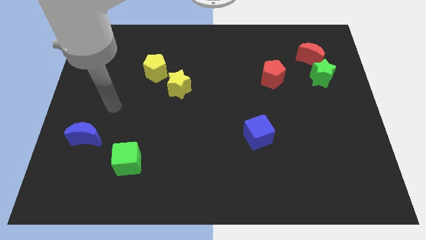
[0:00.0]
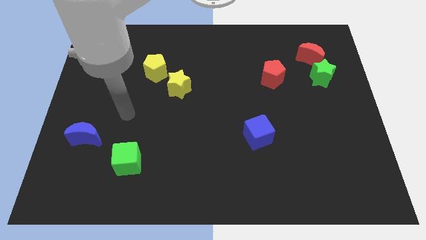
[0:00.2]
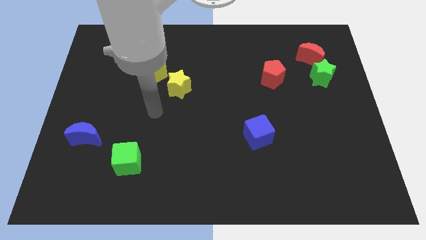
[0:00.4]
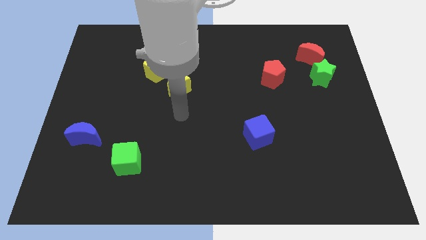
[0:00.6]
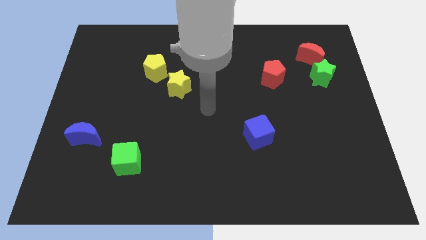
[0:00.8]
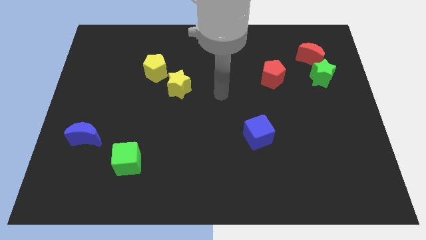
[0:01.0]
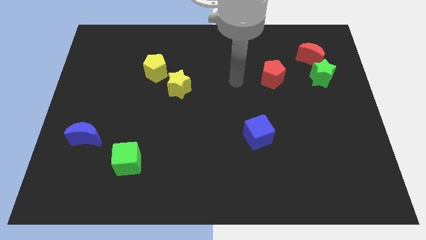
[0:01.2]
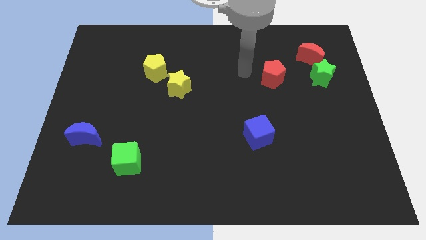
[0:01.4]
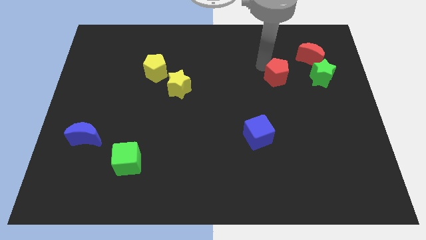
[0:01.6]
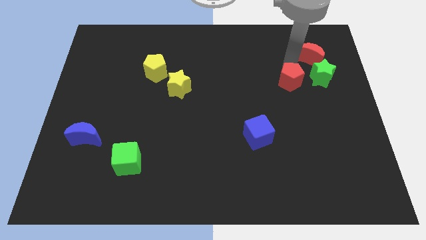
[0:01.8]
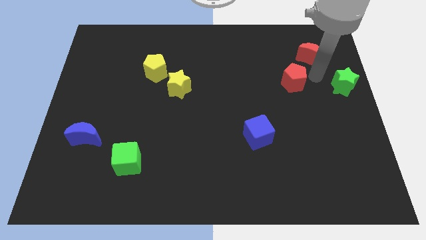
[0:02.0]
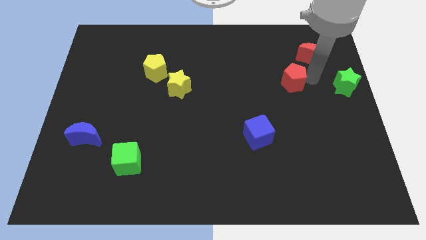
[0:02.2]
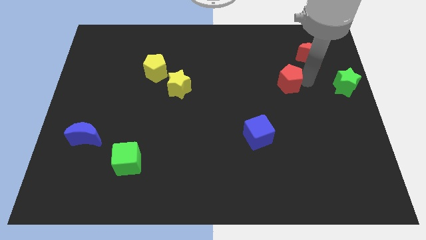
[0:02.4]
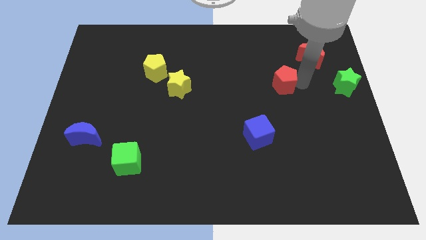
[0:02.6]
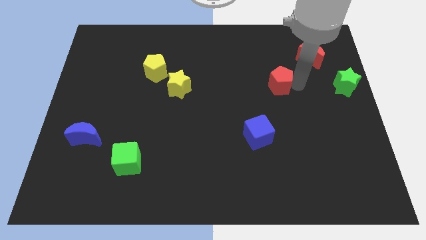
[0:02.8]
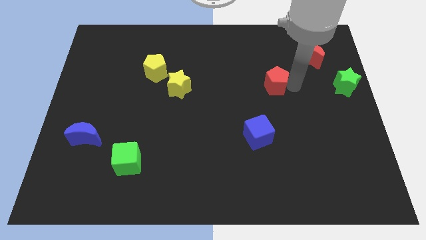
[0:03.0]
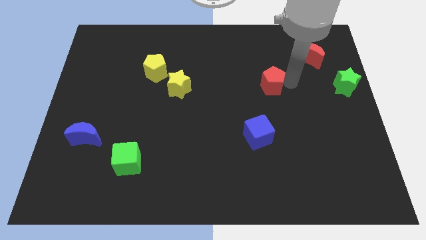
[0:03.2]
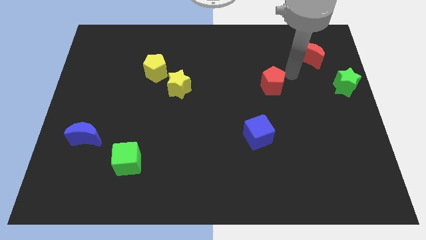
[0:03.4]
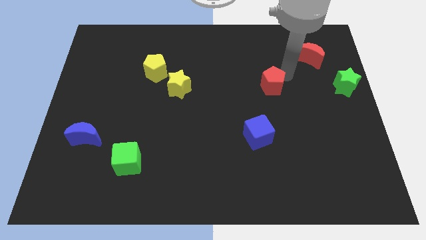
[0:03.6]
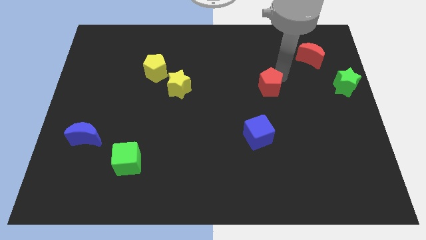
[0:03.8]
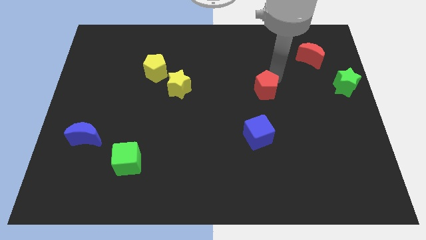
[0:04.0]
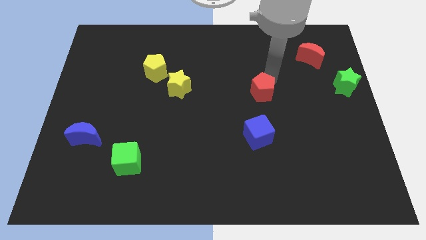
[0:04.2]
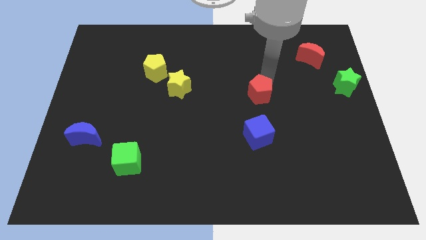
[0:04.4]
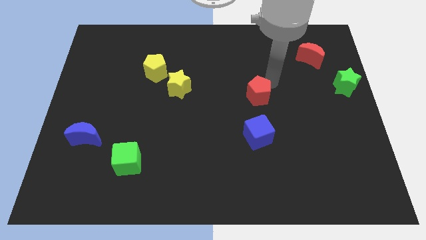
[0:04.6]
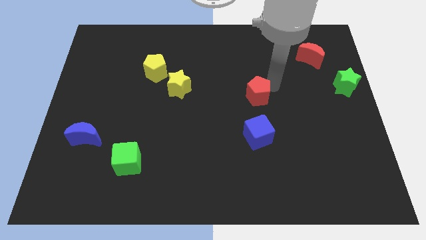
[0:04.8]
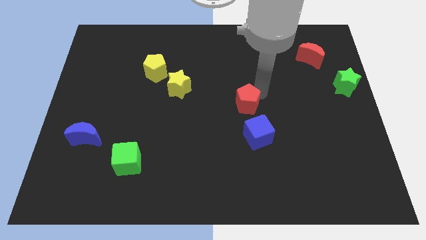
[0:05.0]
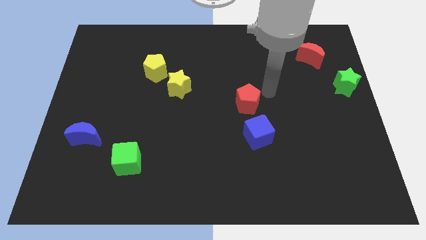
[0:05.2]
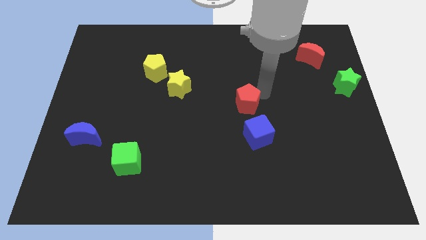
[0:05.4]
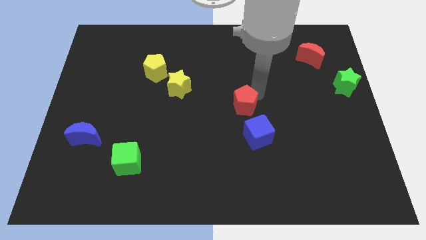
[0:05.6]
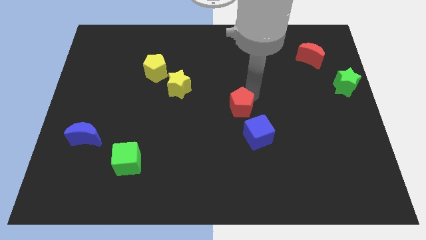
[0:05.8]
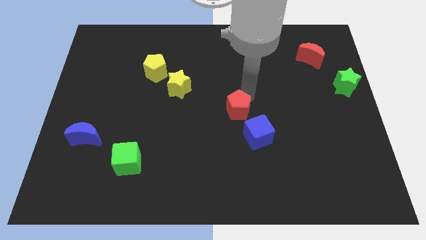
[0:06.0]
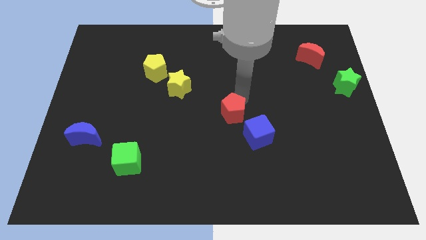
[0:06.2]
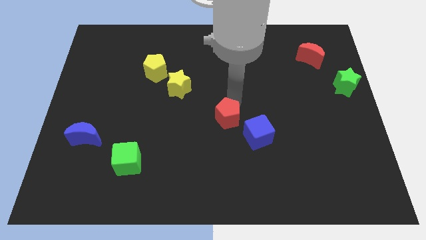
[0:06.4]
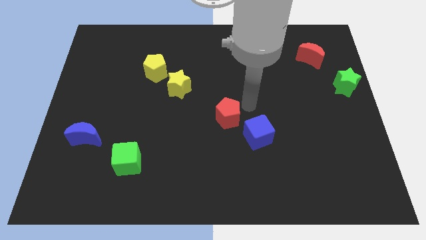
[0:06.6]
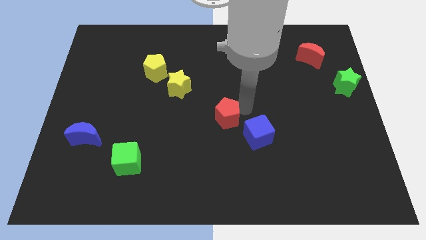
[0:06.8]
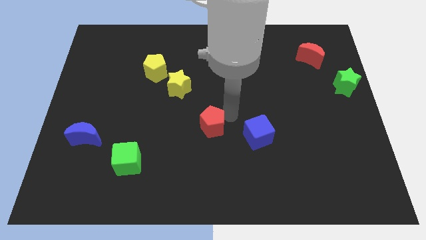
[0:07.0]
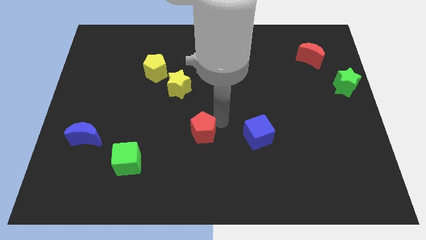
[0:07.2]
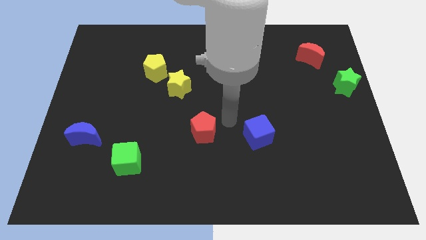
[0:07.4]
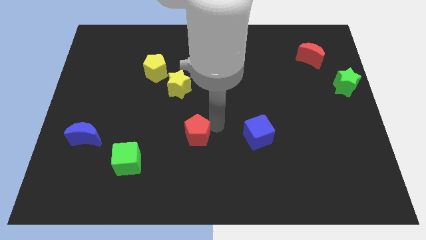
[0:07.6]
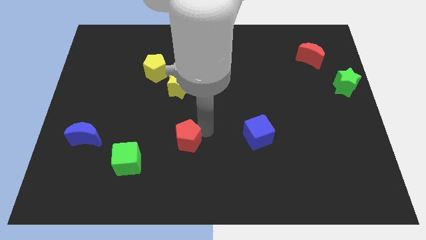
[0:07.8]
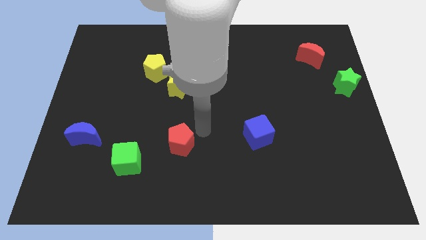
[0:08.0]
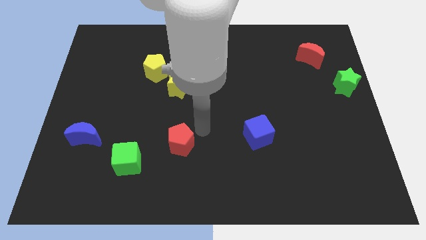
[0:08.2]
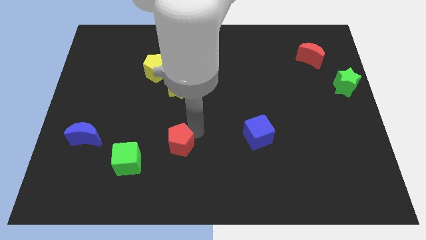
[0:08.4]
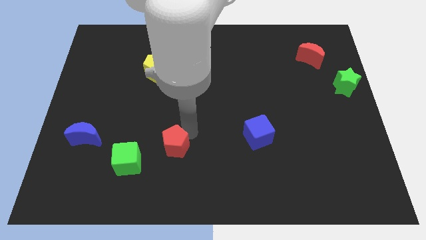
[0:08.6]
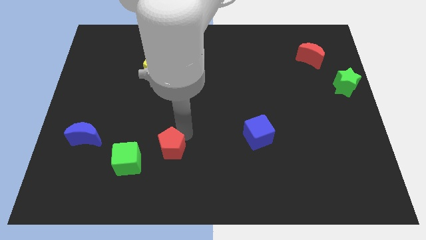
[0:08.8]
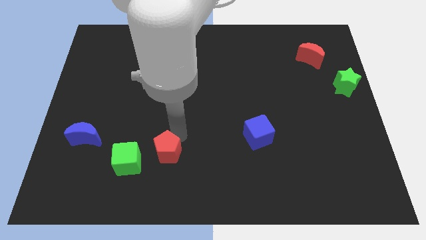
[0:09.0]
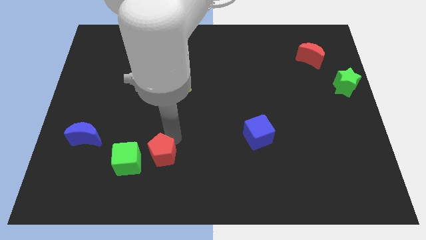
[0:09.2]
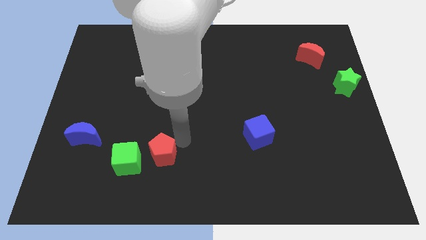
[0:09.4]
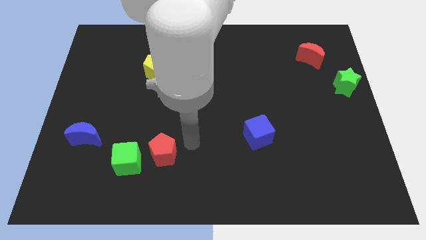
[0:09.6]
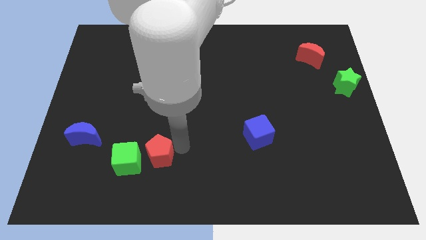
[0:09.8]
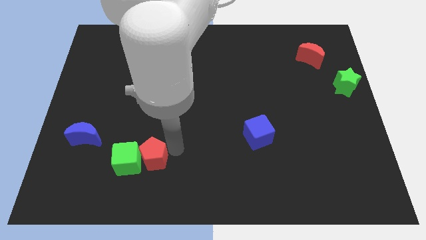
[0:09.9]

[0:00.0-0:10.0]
slide the red pentagon next to the green cube

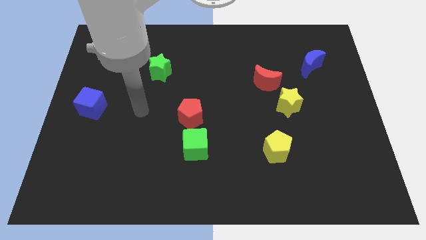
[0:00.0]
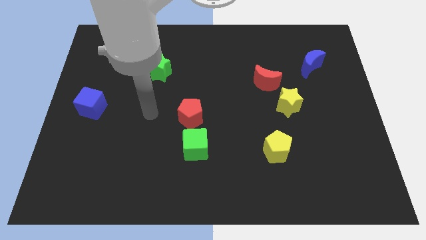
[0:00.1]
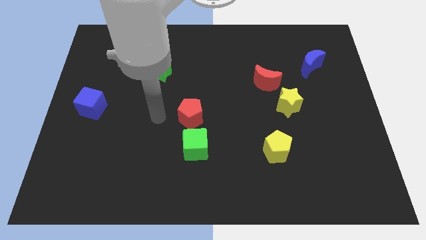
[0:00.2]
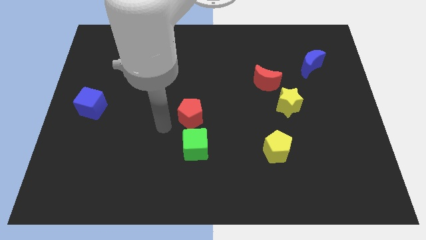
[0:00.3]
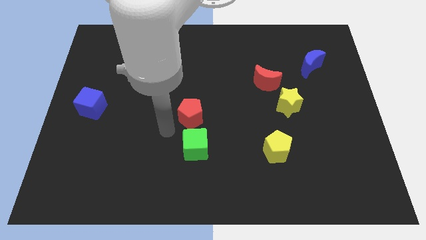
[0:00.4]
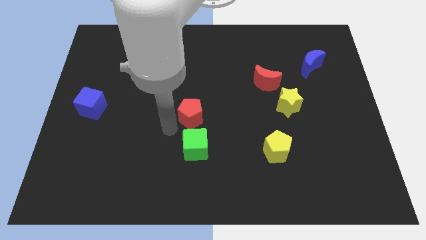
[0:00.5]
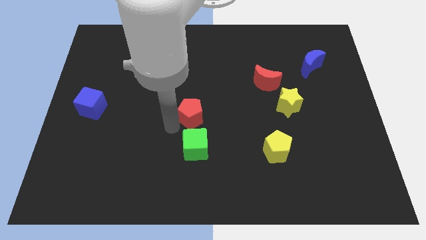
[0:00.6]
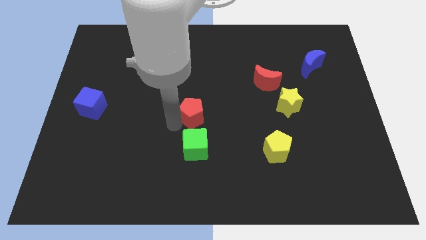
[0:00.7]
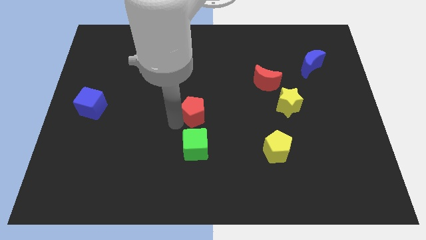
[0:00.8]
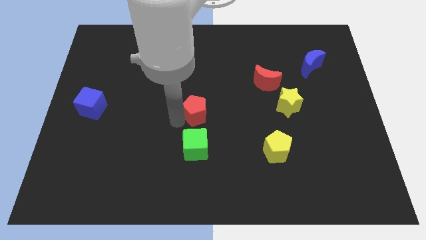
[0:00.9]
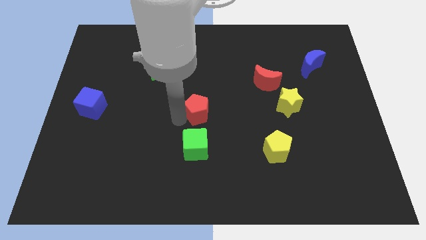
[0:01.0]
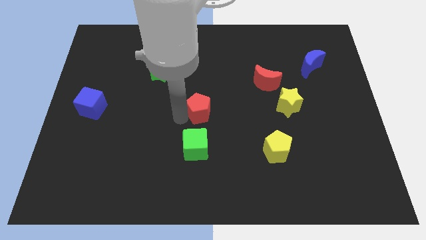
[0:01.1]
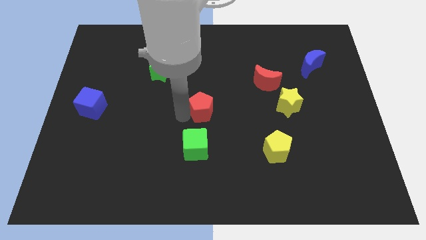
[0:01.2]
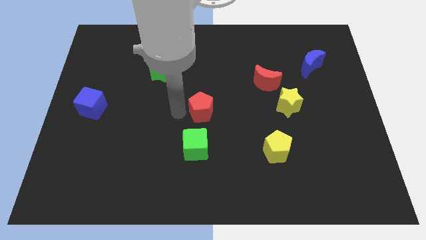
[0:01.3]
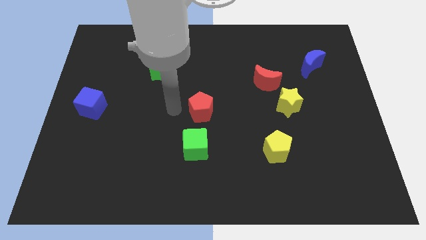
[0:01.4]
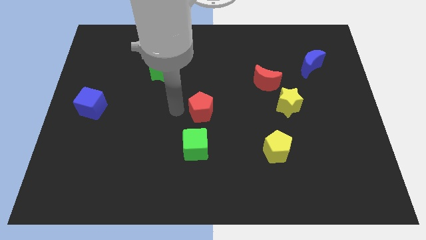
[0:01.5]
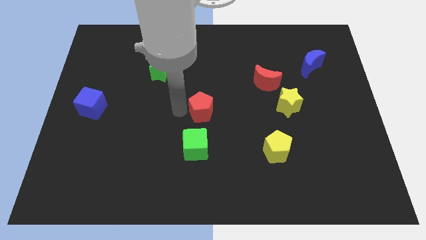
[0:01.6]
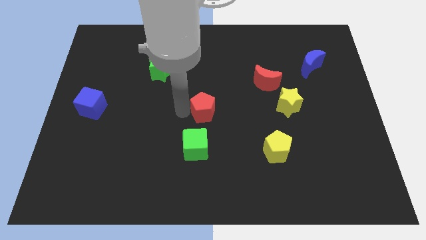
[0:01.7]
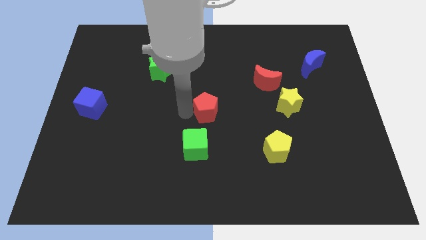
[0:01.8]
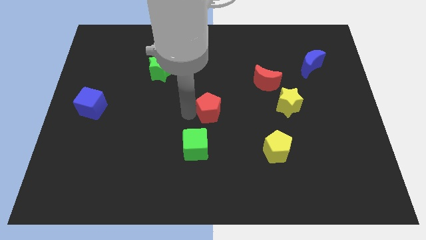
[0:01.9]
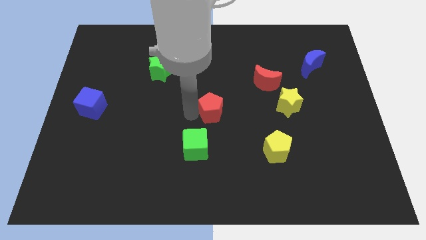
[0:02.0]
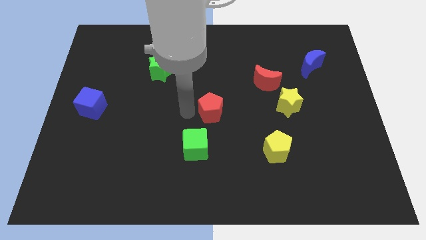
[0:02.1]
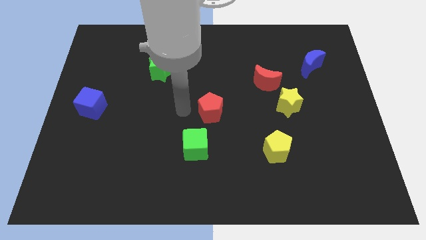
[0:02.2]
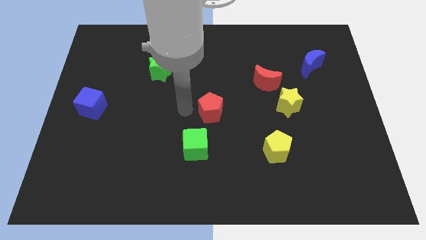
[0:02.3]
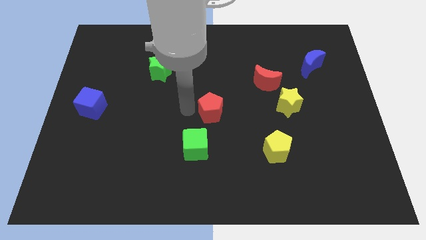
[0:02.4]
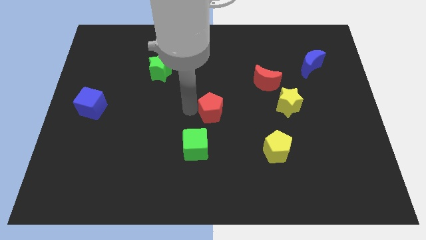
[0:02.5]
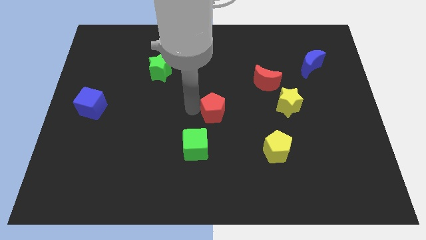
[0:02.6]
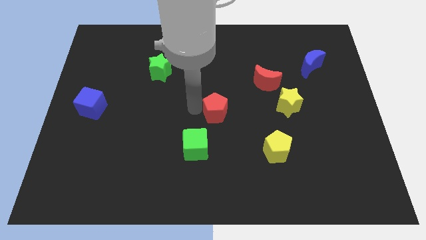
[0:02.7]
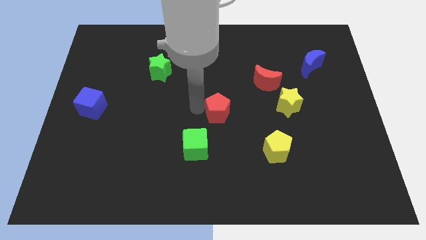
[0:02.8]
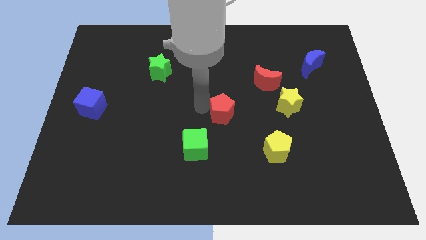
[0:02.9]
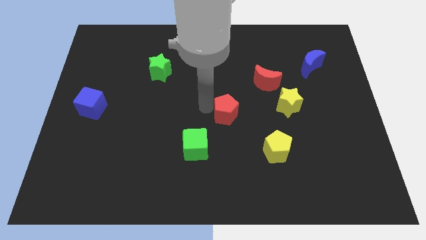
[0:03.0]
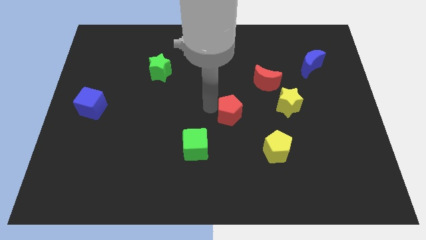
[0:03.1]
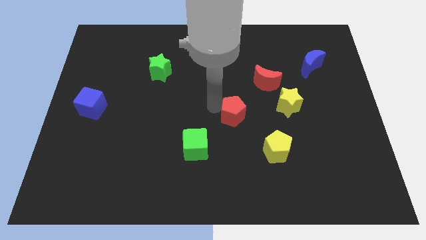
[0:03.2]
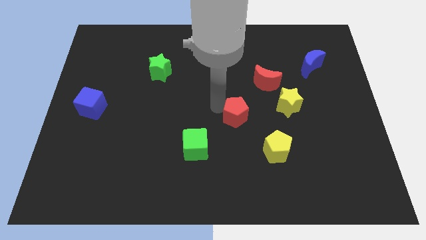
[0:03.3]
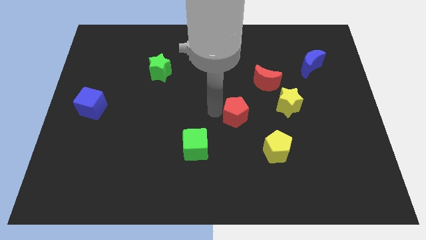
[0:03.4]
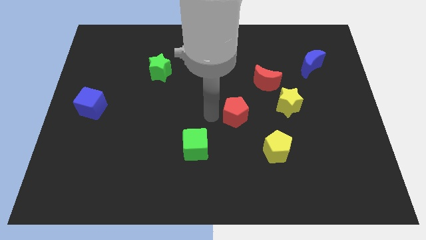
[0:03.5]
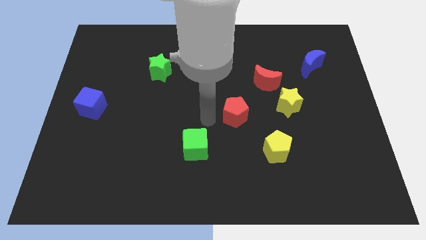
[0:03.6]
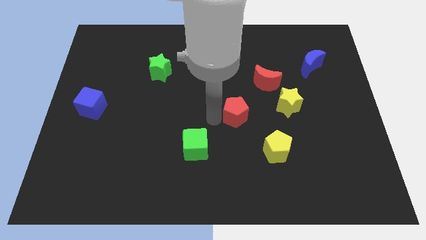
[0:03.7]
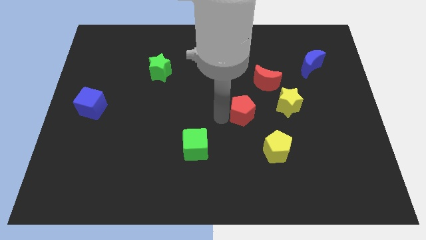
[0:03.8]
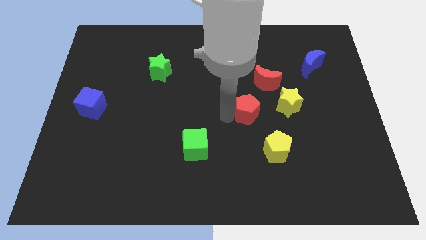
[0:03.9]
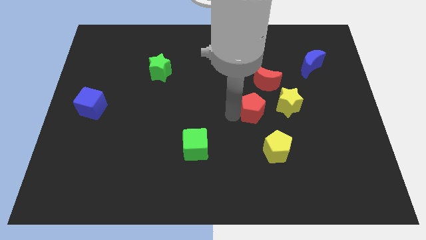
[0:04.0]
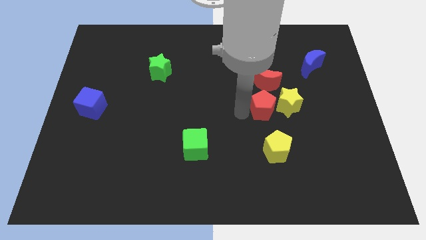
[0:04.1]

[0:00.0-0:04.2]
put the red pentagon next to the yellow star
